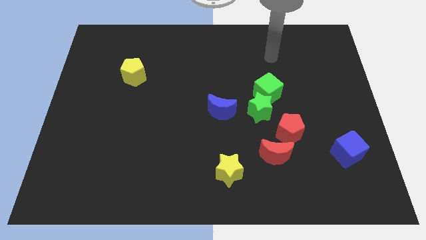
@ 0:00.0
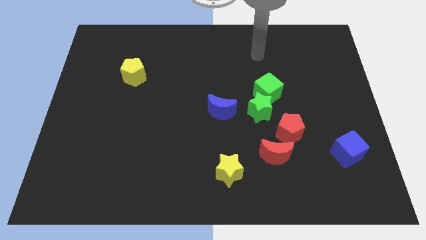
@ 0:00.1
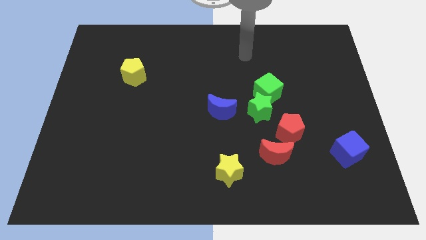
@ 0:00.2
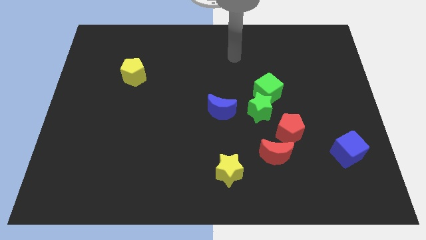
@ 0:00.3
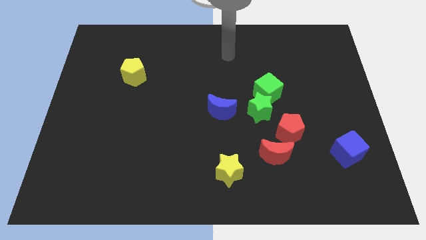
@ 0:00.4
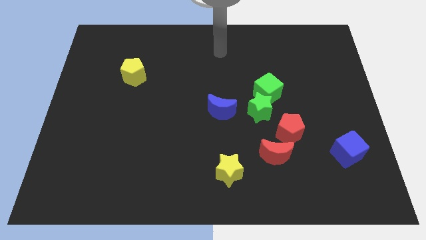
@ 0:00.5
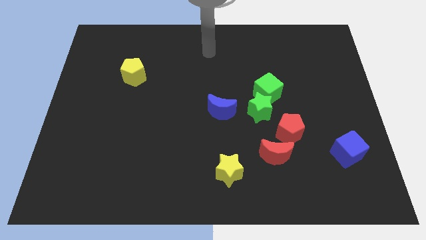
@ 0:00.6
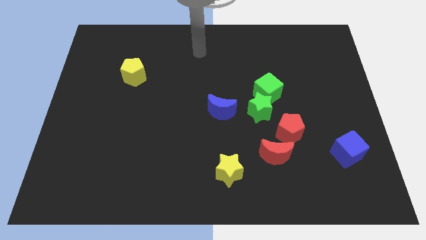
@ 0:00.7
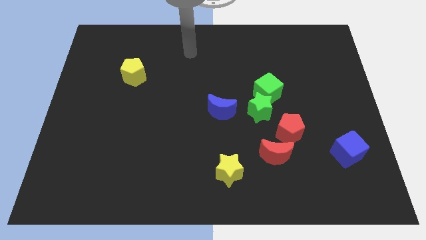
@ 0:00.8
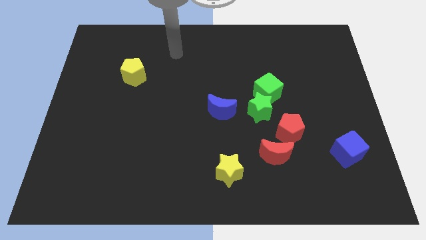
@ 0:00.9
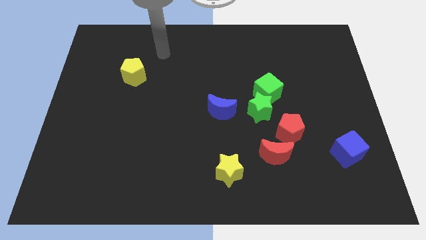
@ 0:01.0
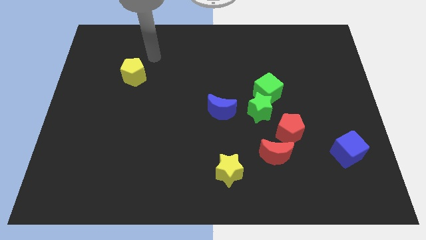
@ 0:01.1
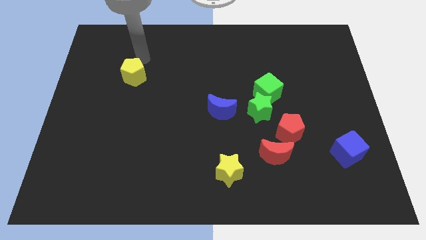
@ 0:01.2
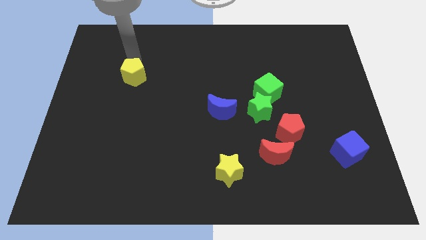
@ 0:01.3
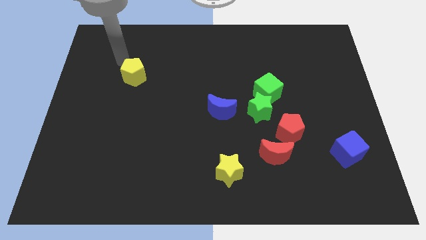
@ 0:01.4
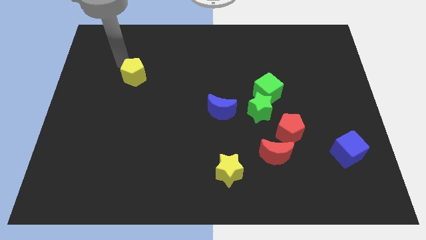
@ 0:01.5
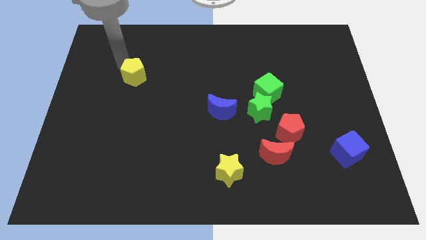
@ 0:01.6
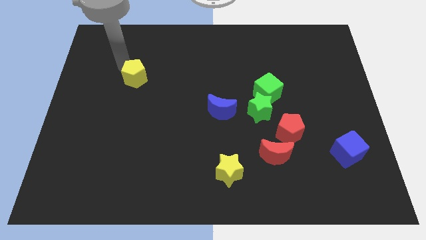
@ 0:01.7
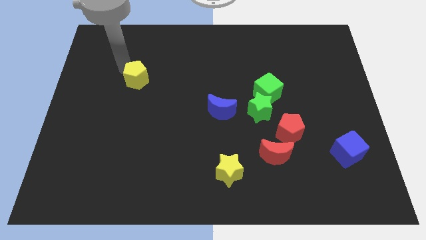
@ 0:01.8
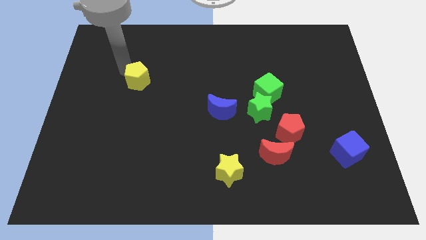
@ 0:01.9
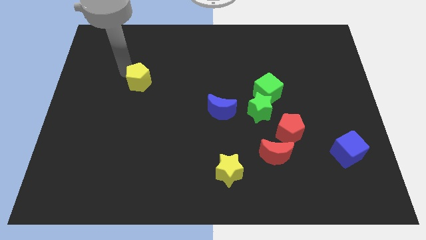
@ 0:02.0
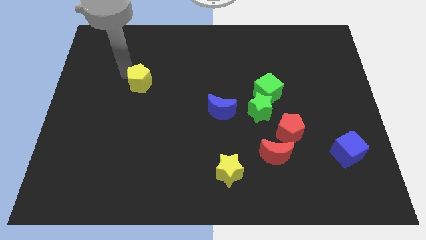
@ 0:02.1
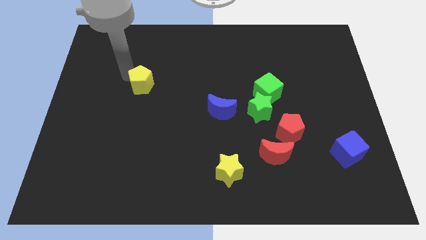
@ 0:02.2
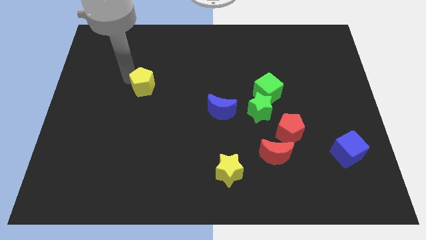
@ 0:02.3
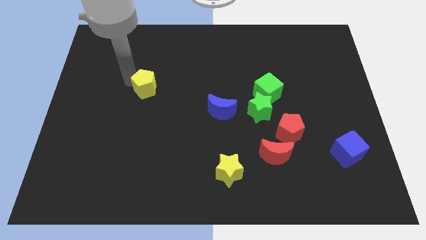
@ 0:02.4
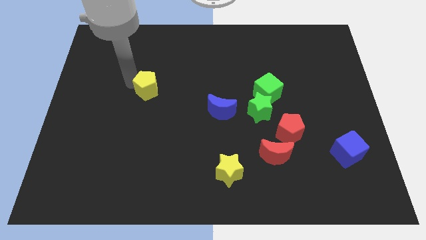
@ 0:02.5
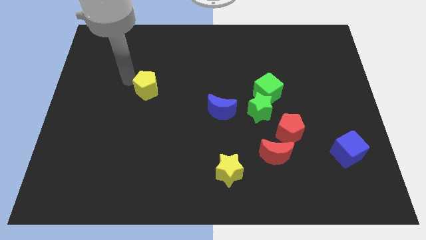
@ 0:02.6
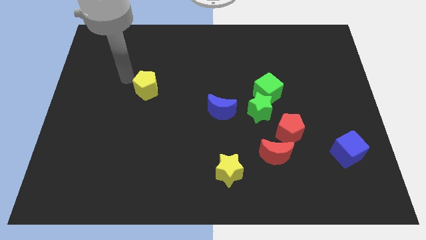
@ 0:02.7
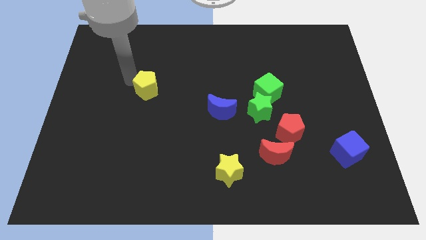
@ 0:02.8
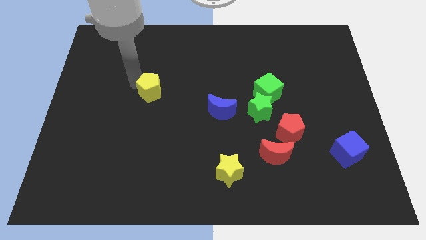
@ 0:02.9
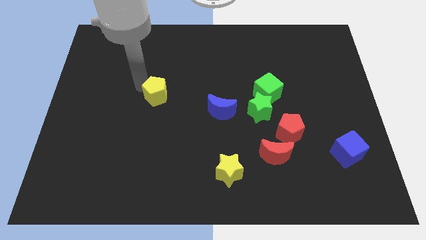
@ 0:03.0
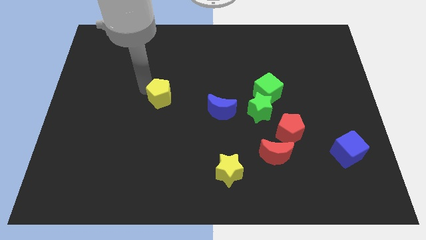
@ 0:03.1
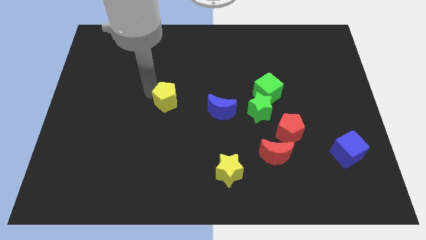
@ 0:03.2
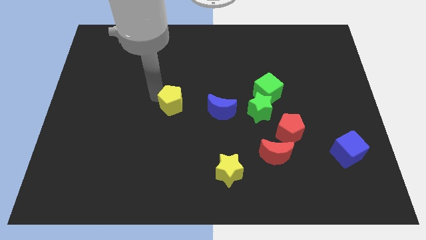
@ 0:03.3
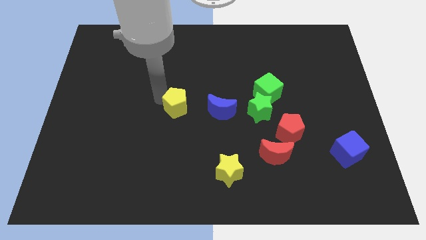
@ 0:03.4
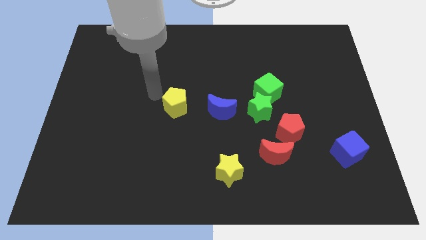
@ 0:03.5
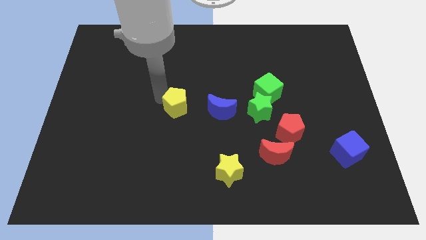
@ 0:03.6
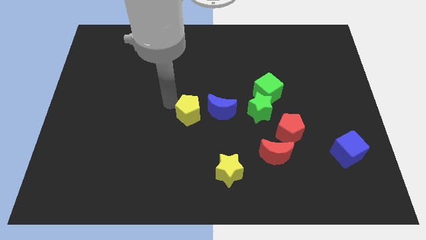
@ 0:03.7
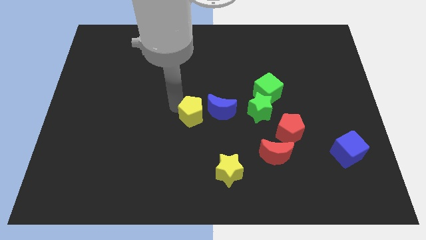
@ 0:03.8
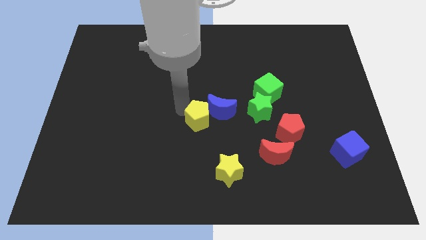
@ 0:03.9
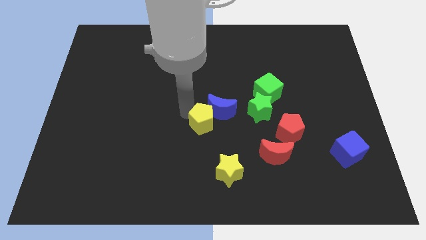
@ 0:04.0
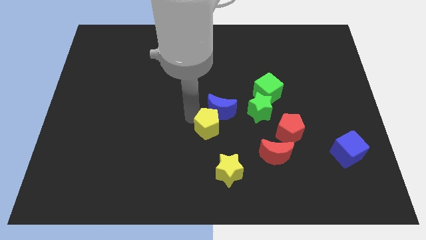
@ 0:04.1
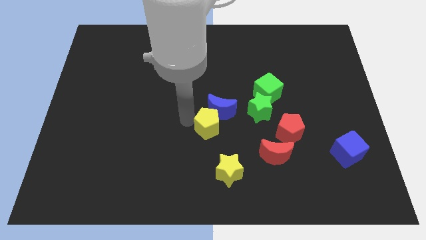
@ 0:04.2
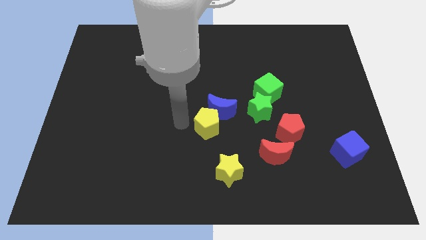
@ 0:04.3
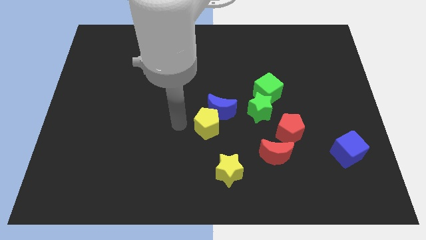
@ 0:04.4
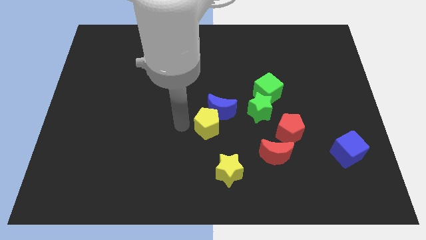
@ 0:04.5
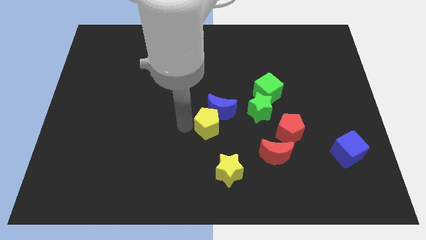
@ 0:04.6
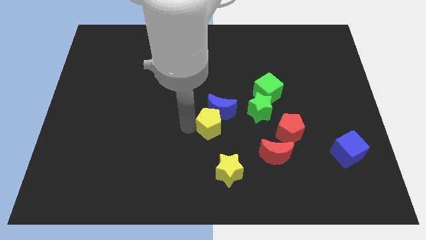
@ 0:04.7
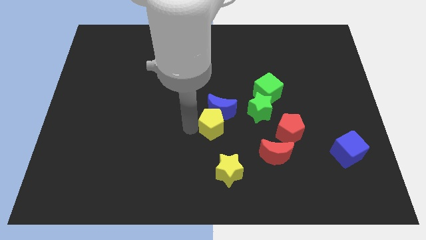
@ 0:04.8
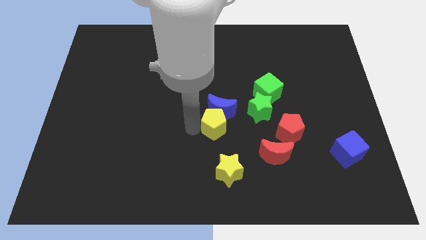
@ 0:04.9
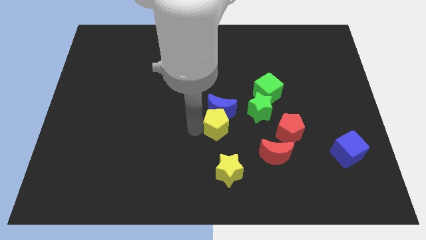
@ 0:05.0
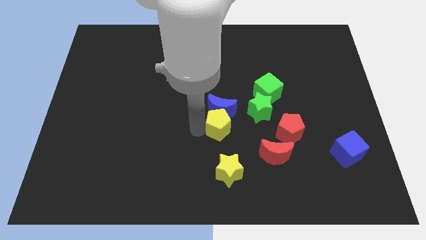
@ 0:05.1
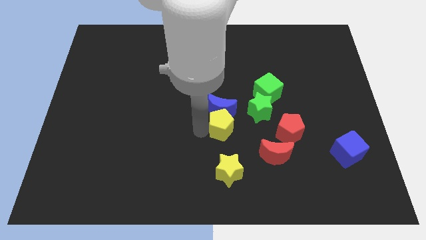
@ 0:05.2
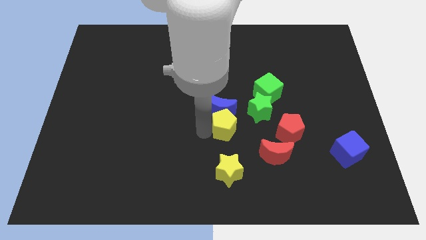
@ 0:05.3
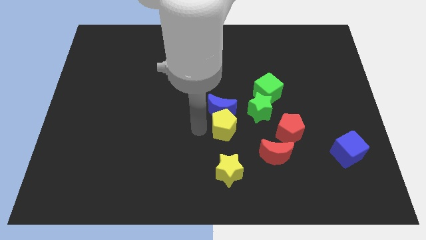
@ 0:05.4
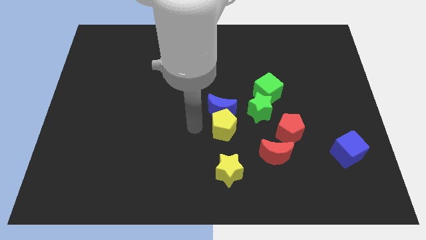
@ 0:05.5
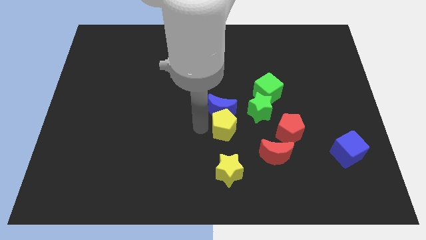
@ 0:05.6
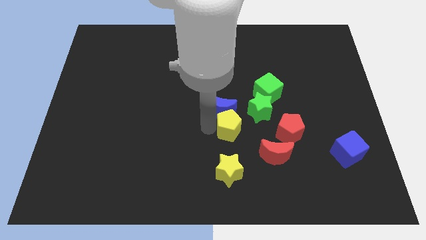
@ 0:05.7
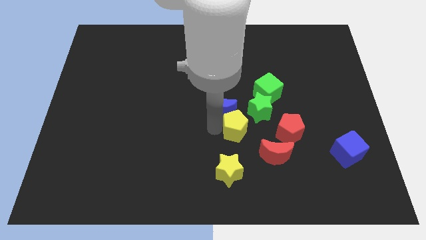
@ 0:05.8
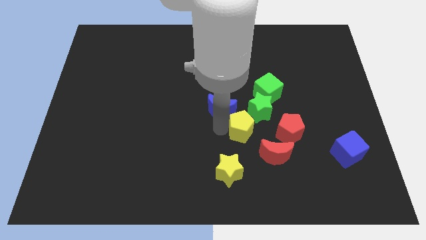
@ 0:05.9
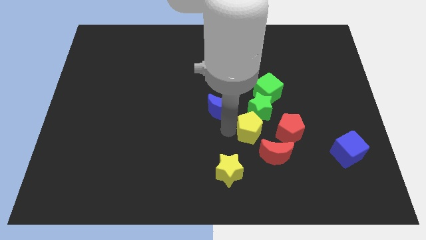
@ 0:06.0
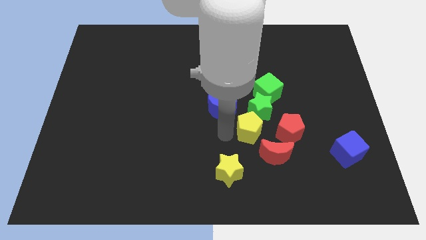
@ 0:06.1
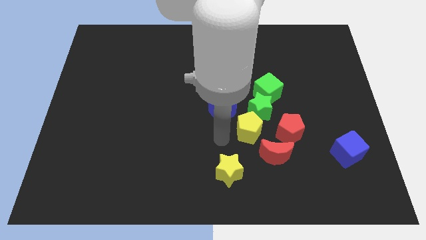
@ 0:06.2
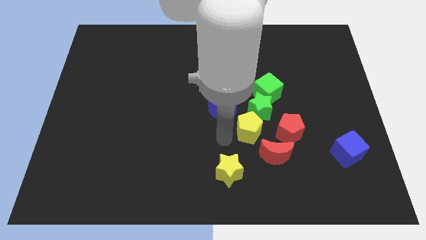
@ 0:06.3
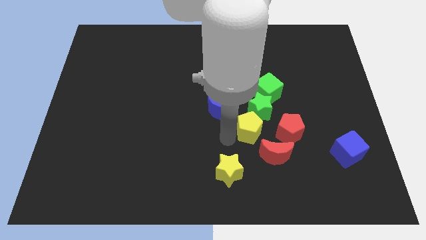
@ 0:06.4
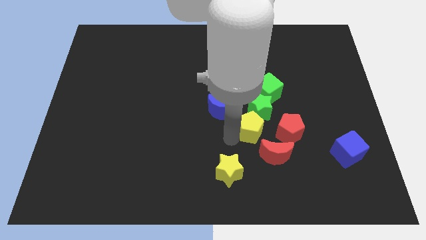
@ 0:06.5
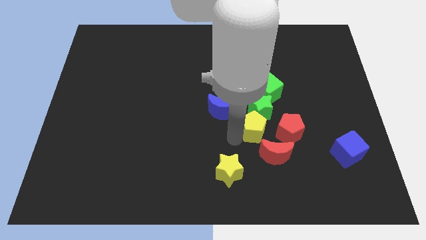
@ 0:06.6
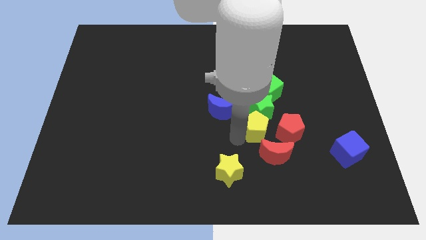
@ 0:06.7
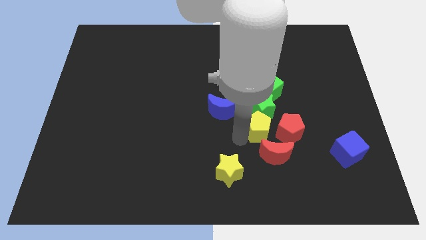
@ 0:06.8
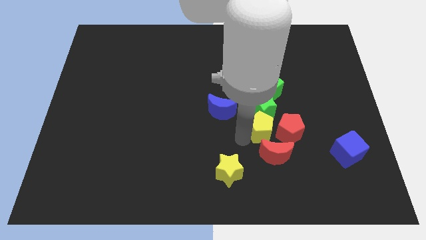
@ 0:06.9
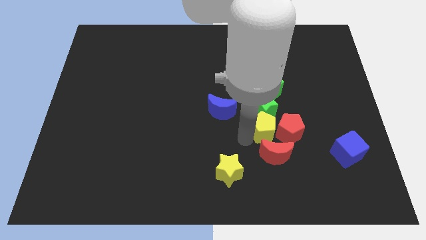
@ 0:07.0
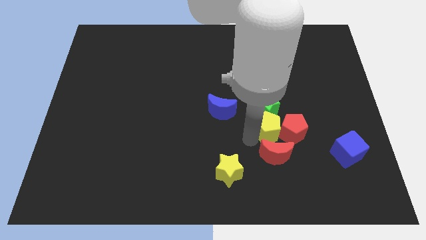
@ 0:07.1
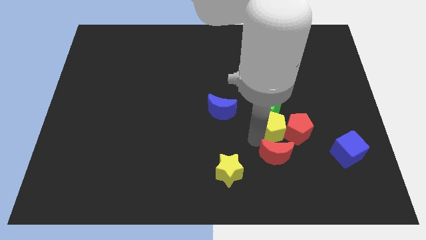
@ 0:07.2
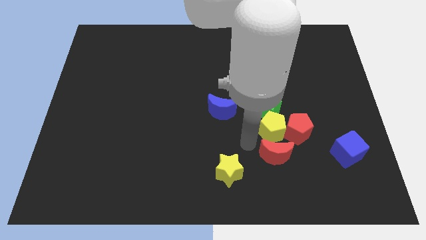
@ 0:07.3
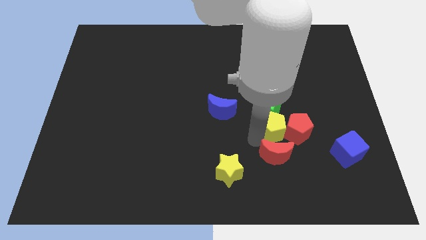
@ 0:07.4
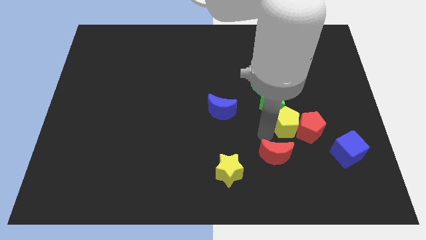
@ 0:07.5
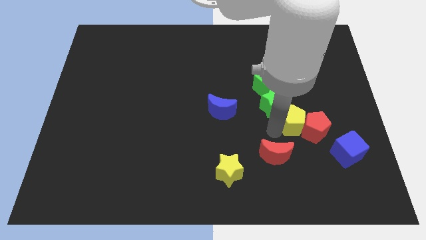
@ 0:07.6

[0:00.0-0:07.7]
put the yellow pentagon to the right side of the green star

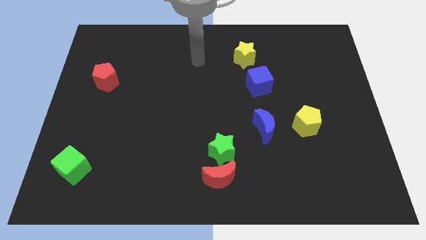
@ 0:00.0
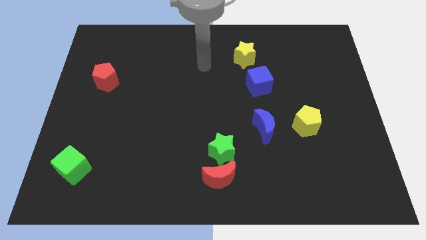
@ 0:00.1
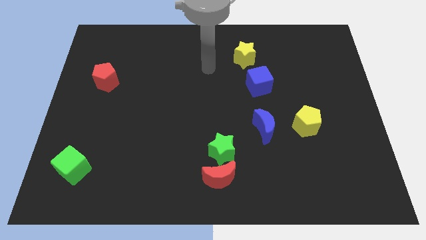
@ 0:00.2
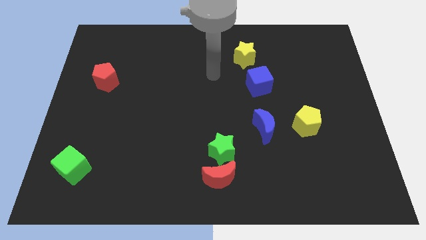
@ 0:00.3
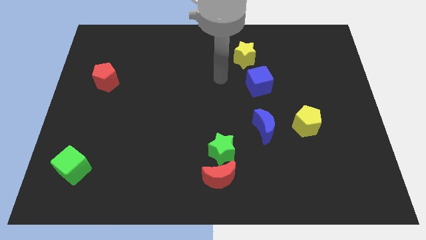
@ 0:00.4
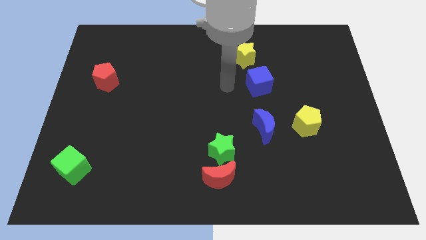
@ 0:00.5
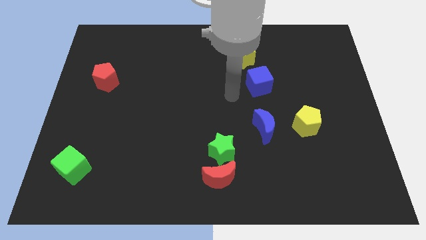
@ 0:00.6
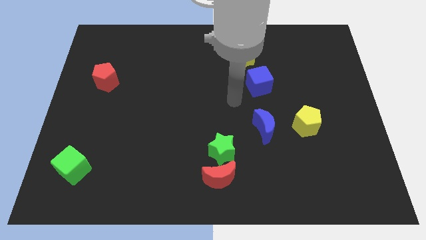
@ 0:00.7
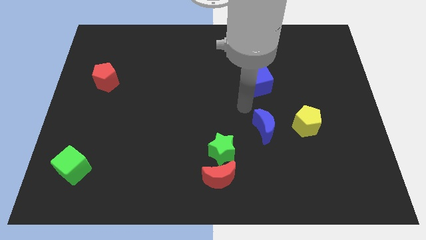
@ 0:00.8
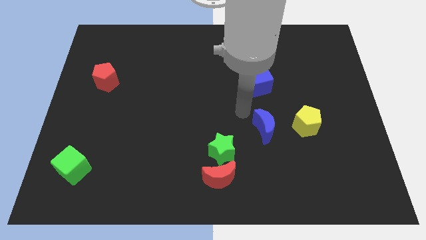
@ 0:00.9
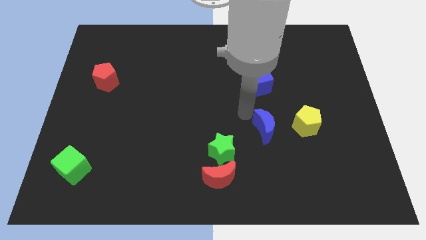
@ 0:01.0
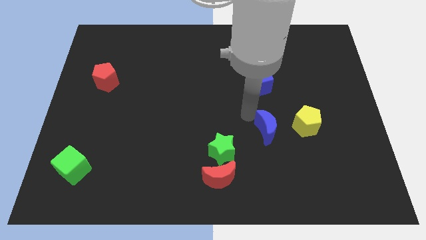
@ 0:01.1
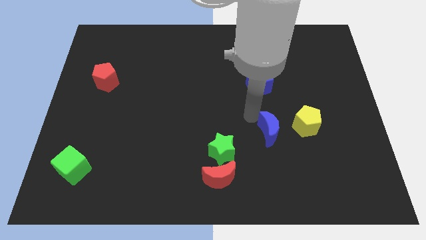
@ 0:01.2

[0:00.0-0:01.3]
put the blue moon to the bottom left of the yellow pentagon
